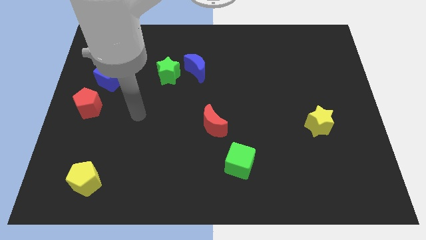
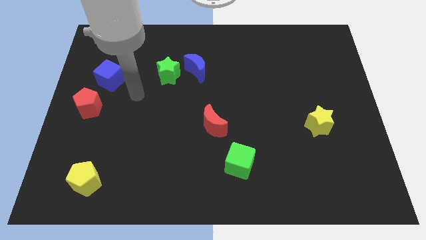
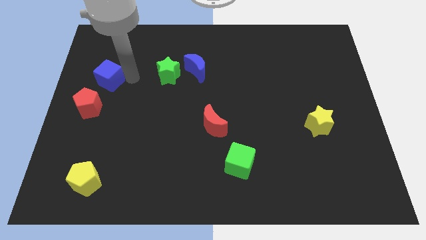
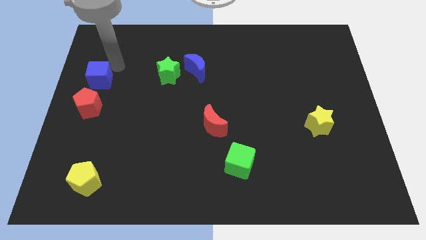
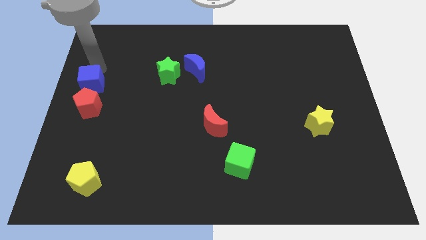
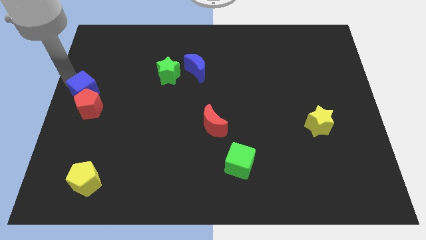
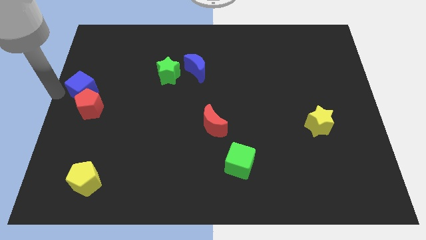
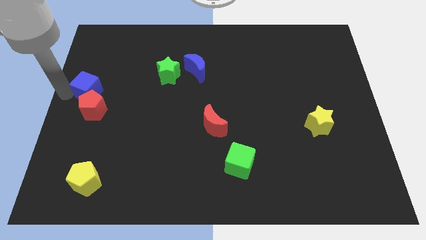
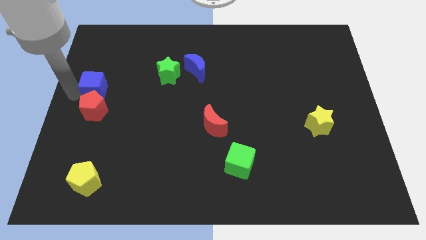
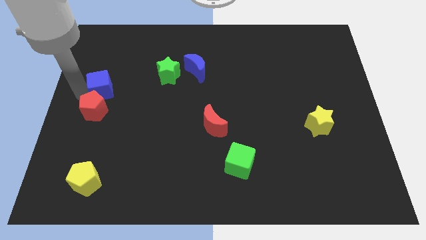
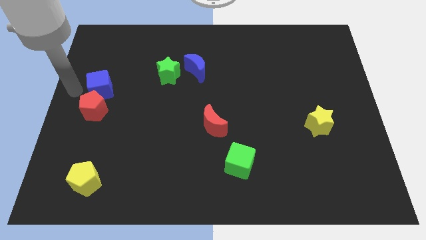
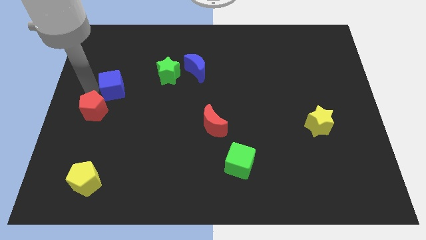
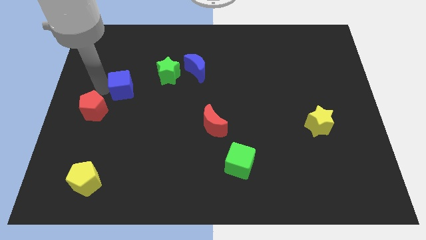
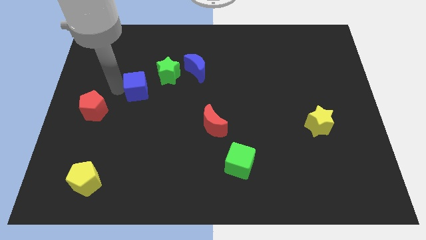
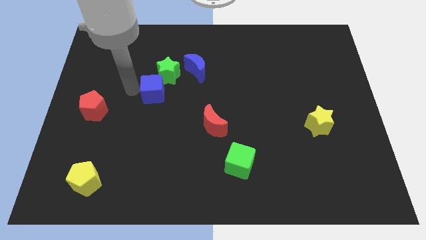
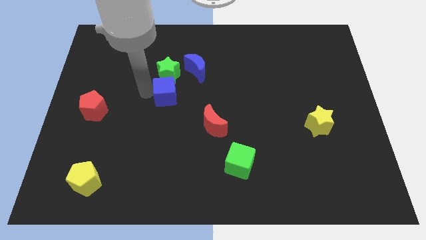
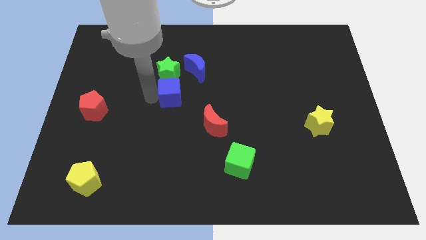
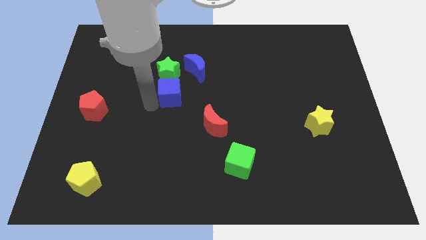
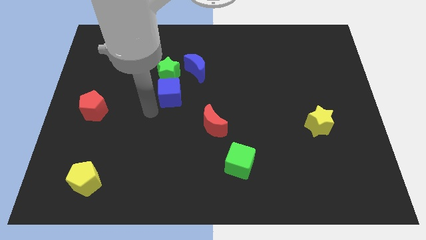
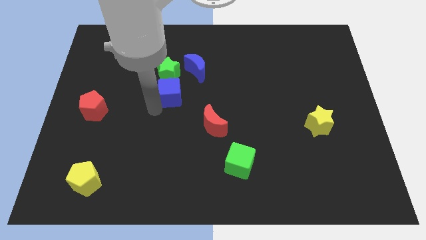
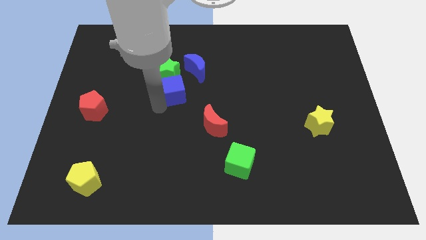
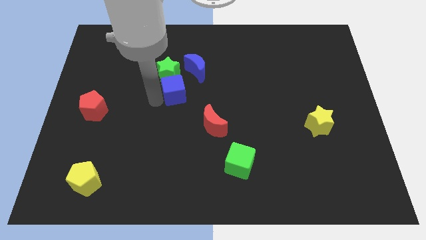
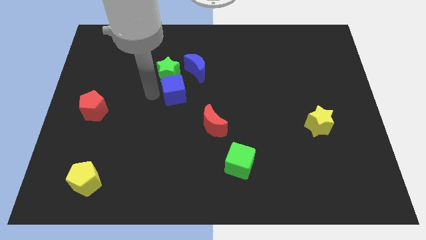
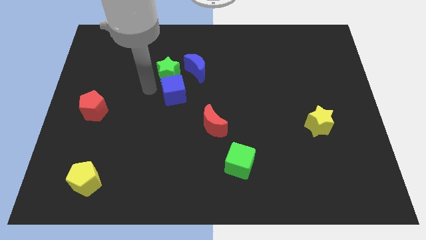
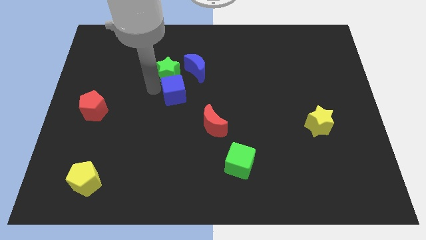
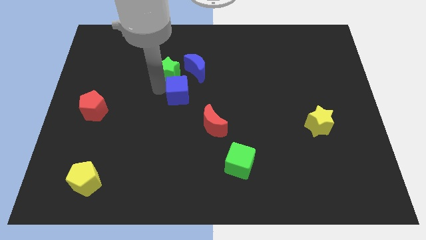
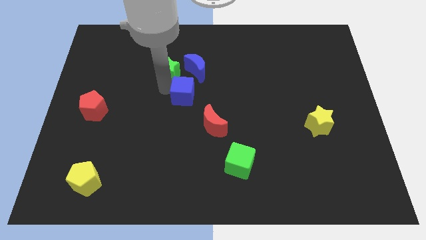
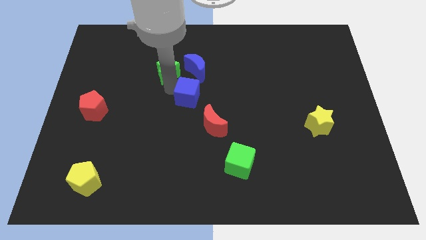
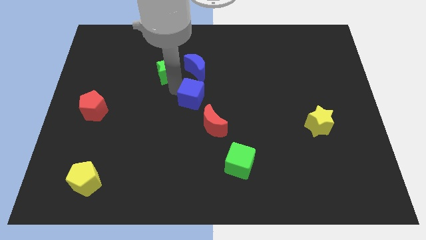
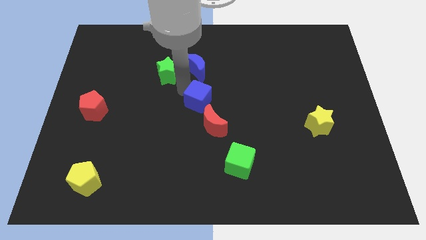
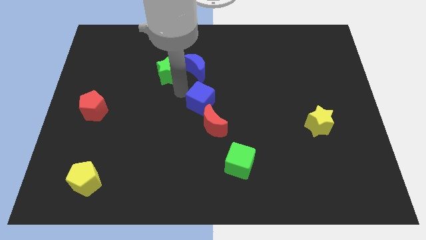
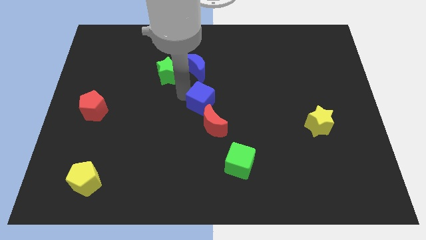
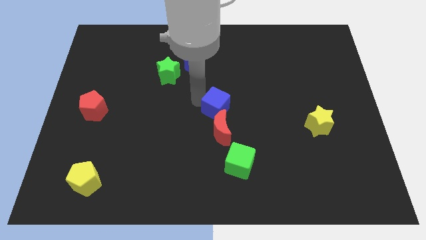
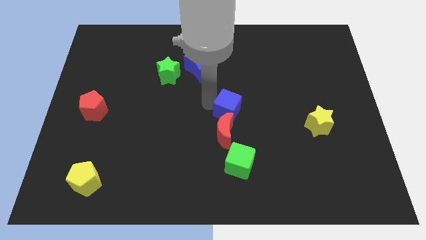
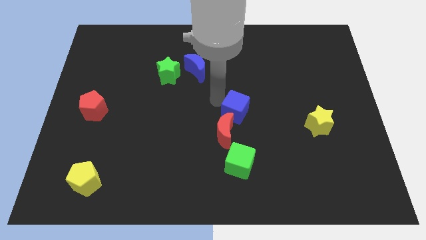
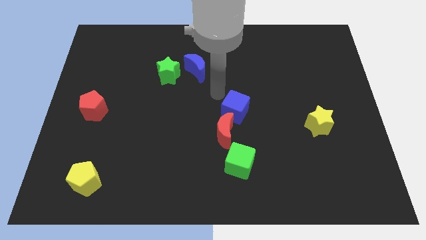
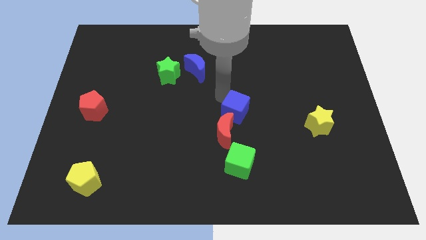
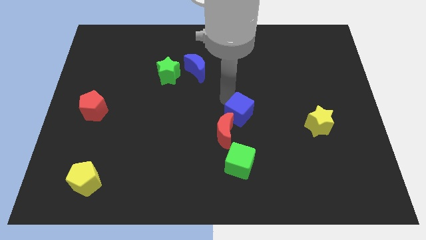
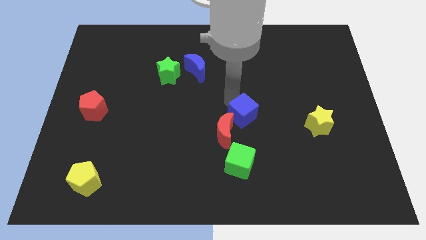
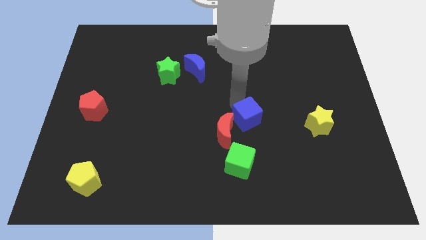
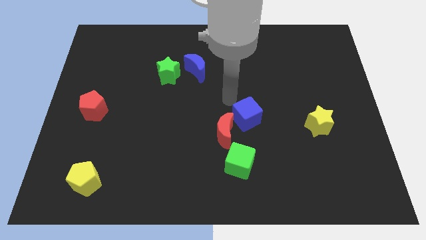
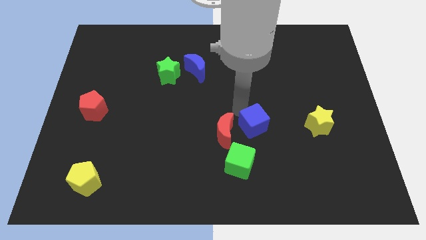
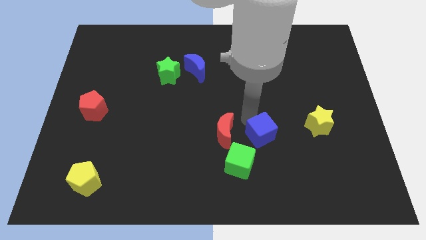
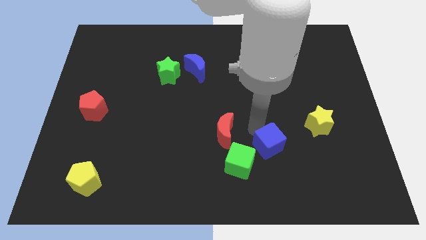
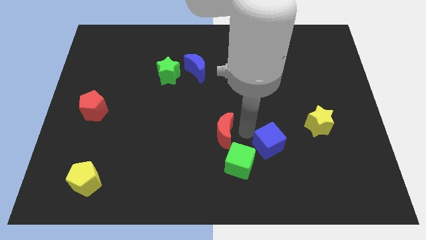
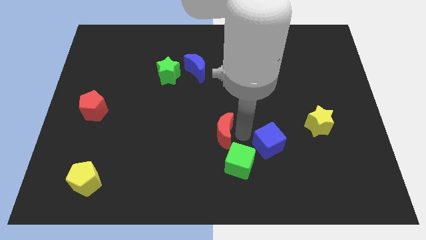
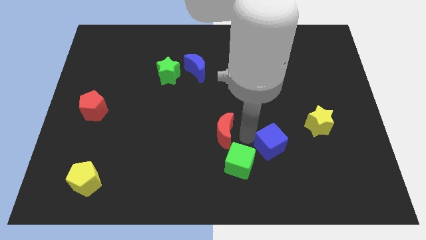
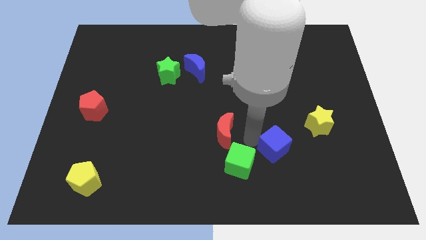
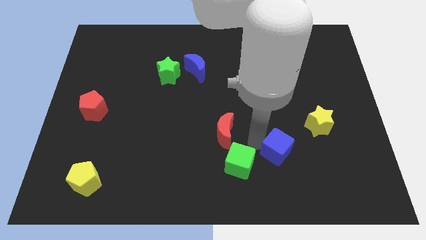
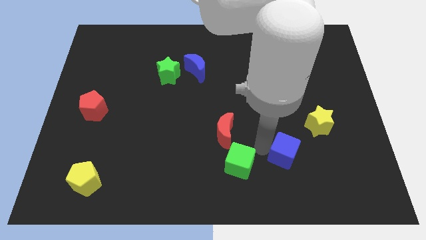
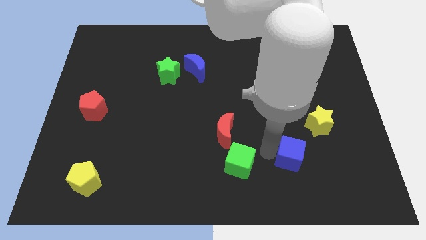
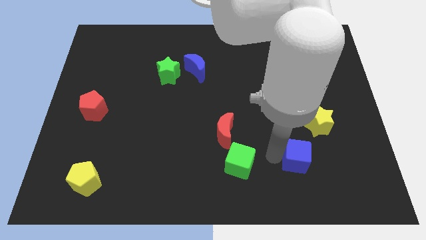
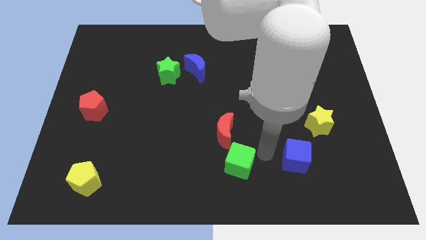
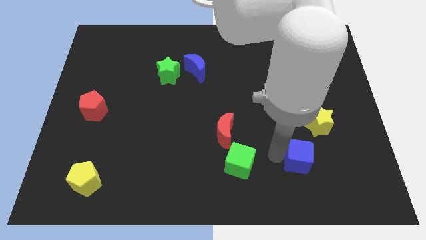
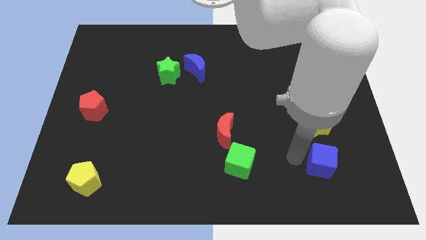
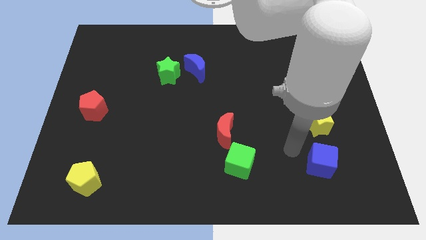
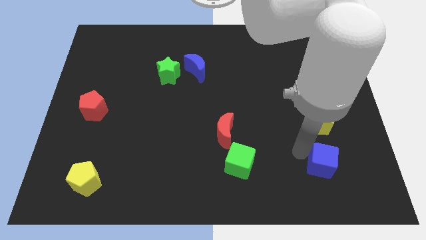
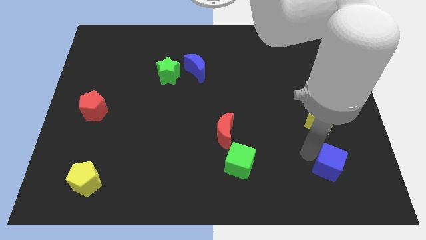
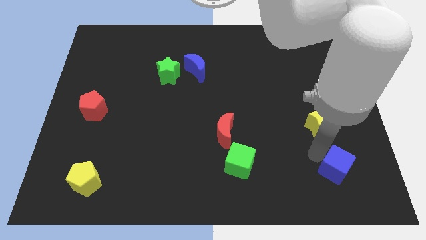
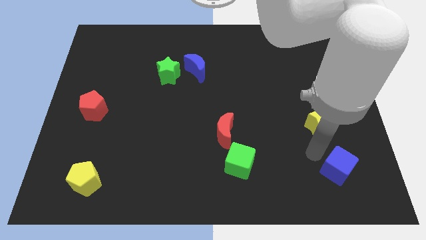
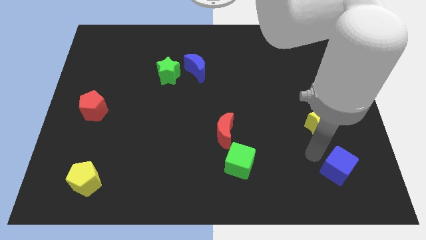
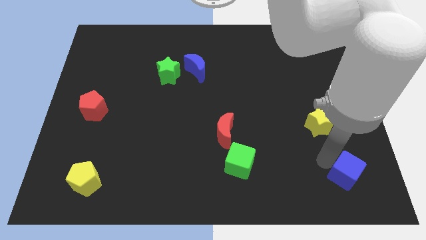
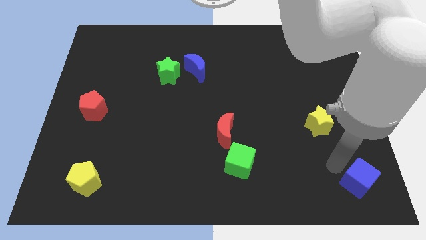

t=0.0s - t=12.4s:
push the blue cube to the lower right corner
